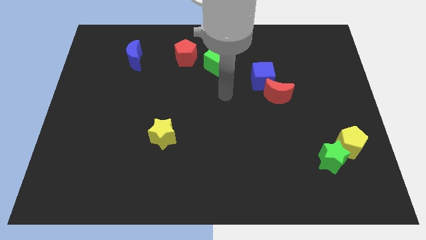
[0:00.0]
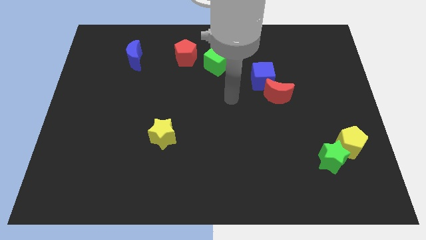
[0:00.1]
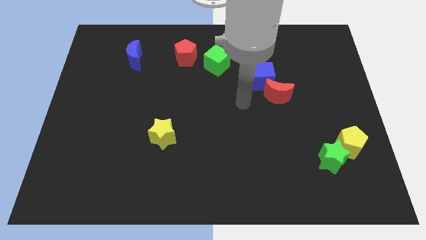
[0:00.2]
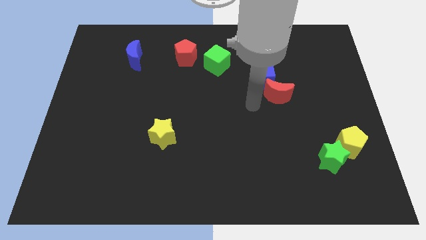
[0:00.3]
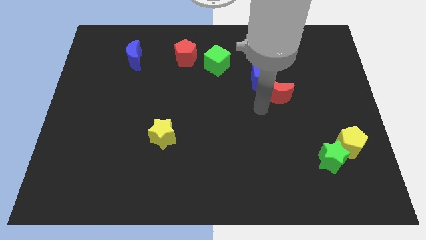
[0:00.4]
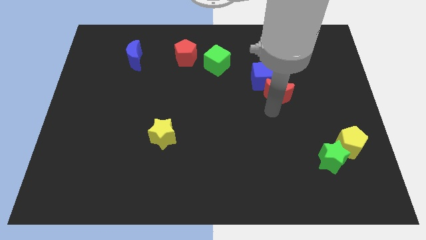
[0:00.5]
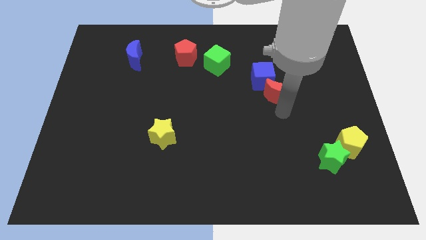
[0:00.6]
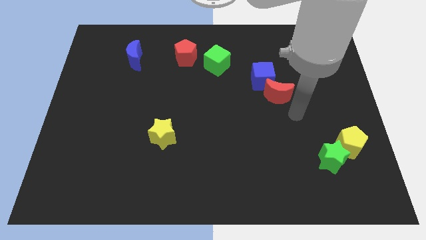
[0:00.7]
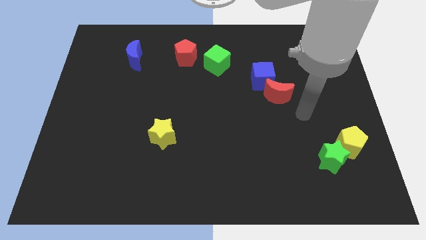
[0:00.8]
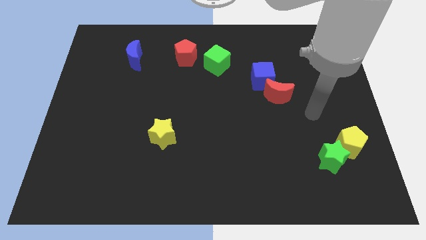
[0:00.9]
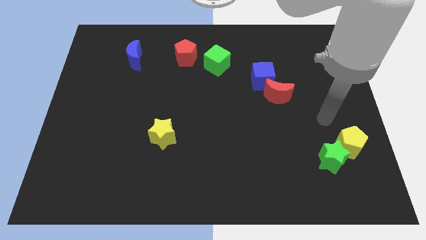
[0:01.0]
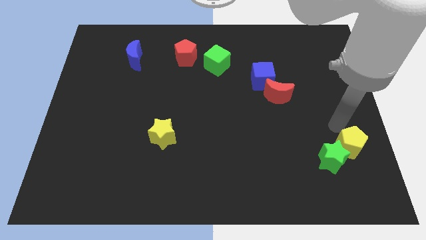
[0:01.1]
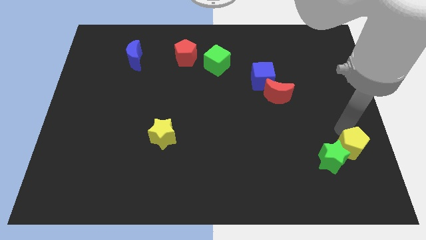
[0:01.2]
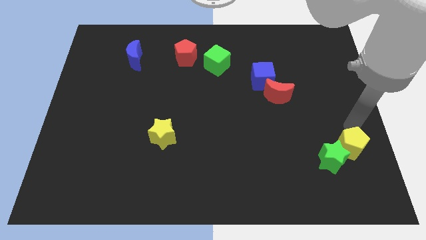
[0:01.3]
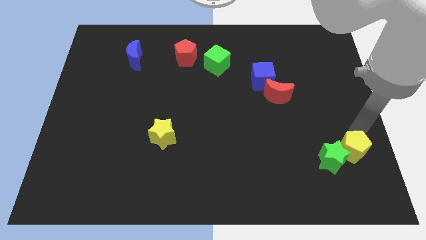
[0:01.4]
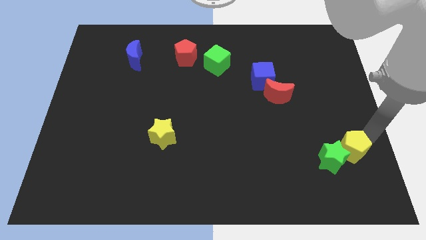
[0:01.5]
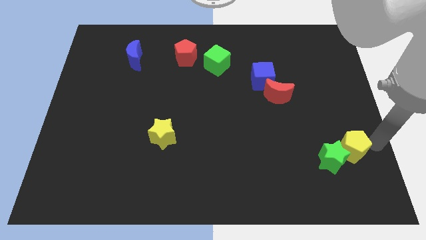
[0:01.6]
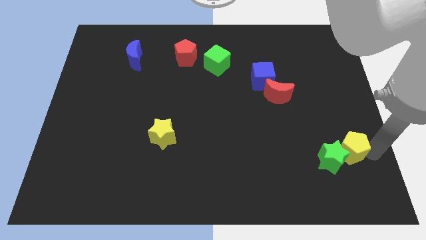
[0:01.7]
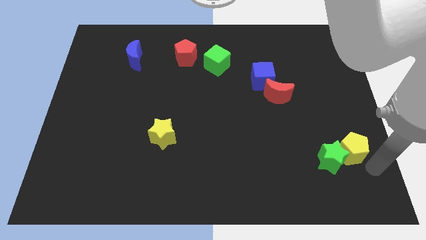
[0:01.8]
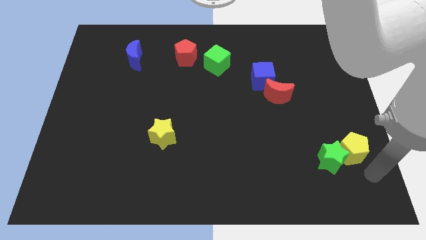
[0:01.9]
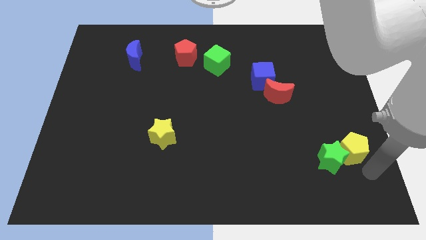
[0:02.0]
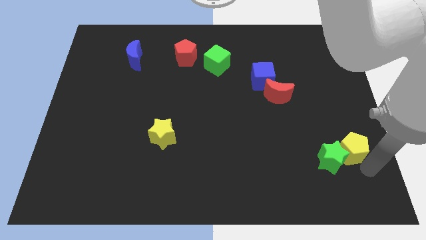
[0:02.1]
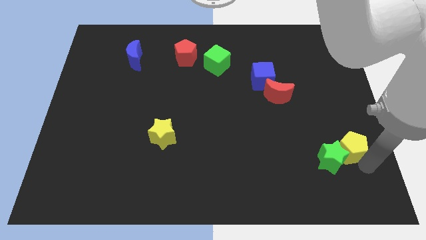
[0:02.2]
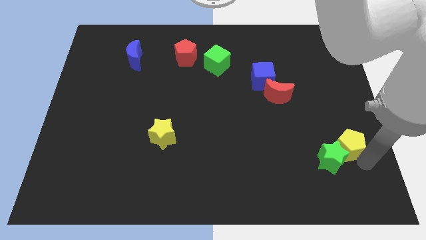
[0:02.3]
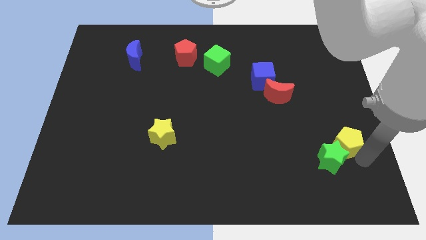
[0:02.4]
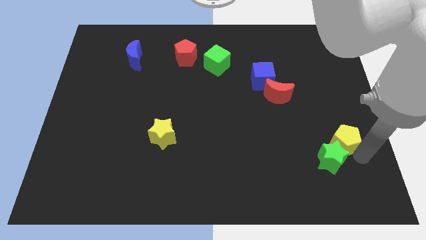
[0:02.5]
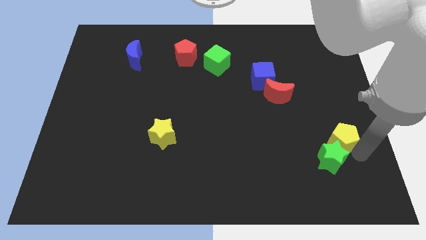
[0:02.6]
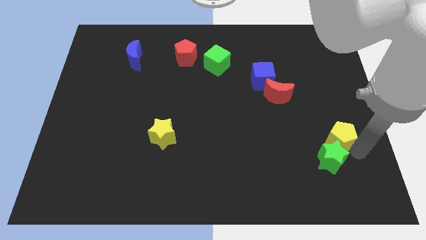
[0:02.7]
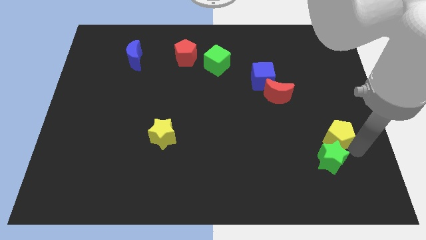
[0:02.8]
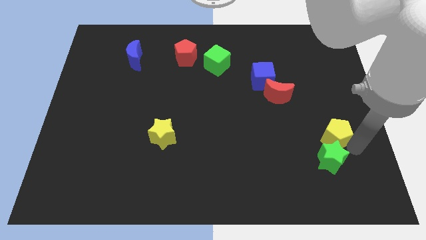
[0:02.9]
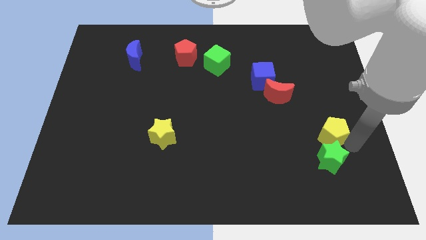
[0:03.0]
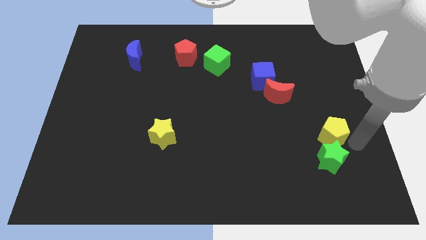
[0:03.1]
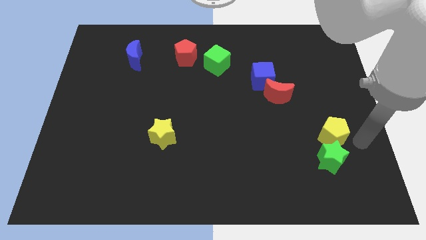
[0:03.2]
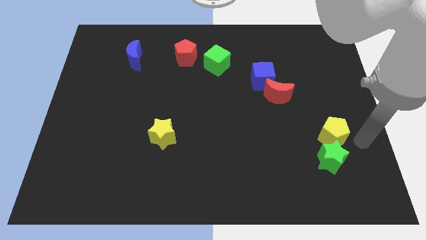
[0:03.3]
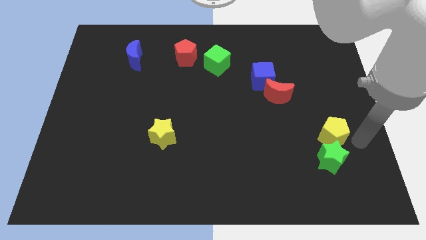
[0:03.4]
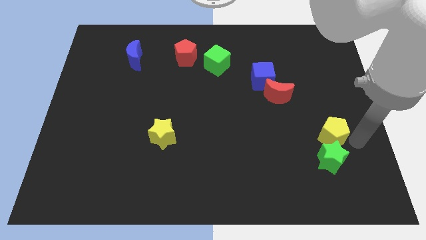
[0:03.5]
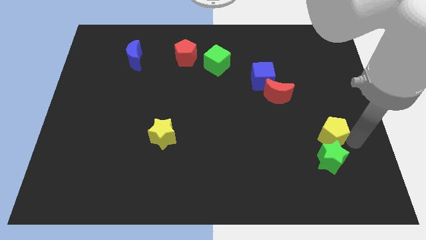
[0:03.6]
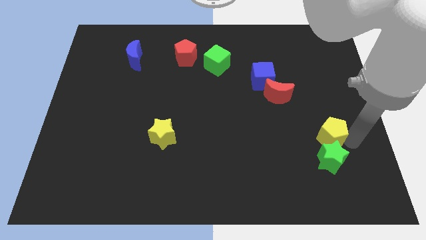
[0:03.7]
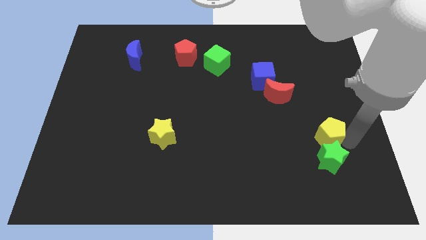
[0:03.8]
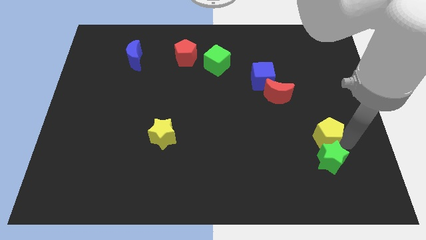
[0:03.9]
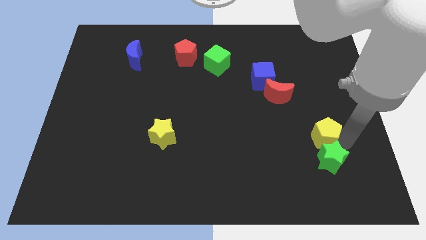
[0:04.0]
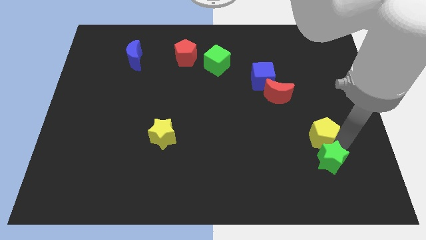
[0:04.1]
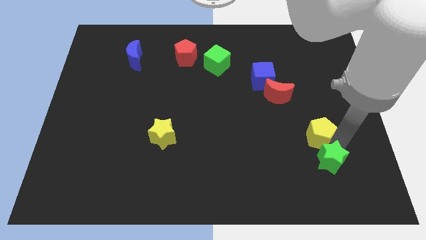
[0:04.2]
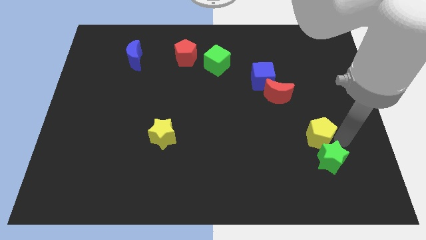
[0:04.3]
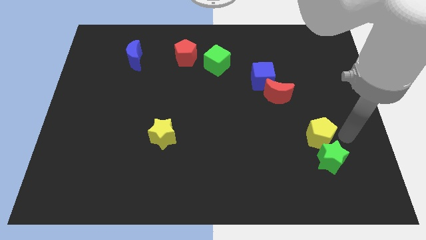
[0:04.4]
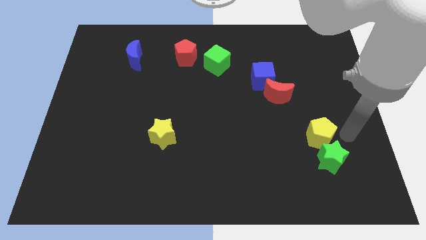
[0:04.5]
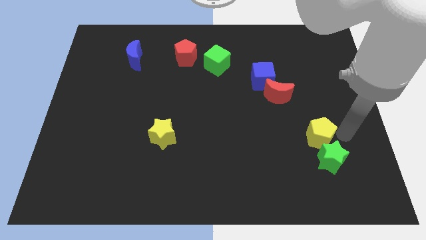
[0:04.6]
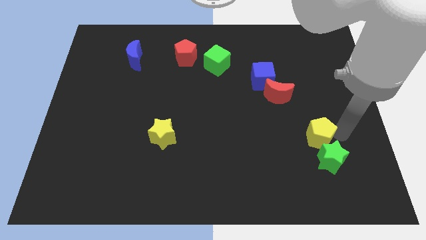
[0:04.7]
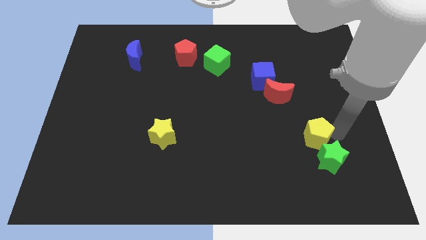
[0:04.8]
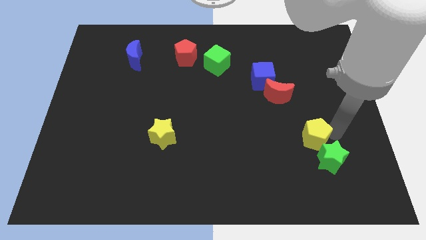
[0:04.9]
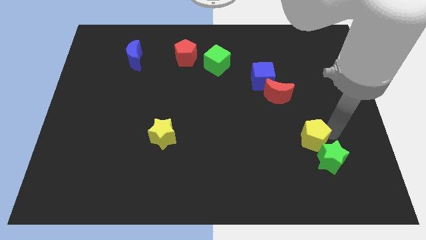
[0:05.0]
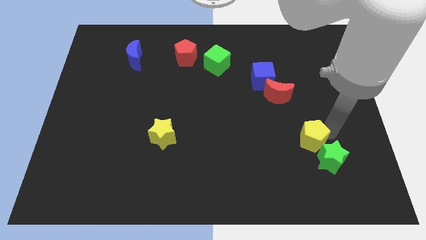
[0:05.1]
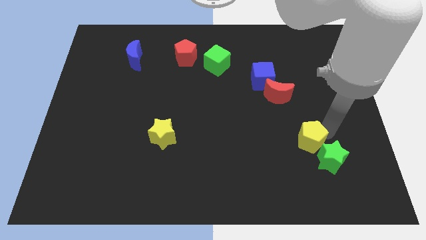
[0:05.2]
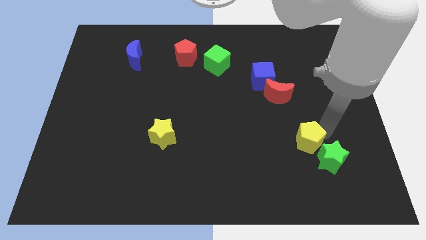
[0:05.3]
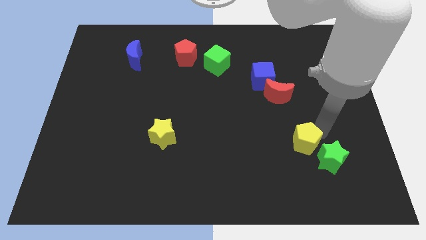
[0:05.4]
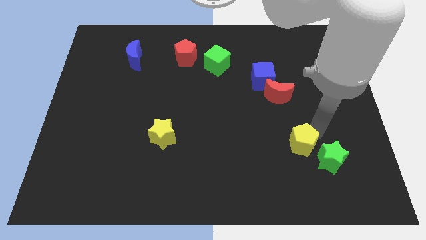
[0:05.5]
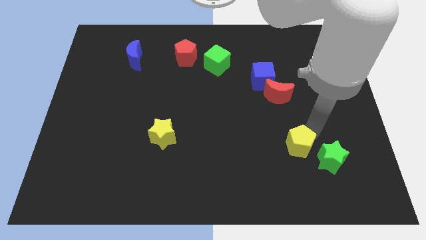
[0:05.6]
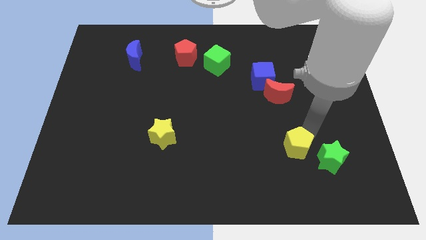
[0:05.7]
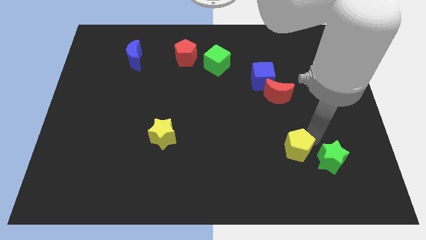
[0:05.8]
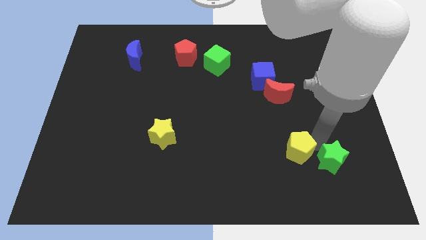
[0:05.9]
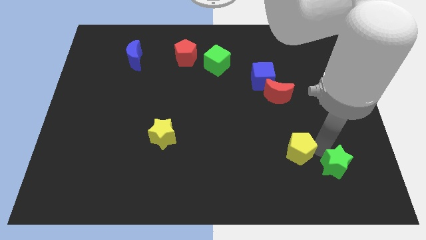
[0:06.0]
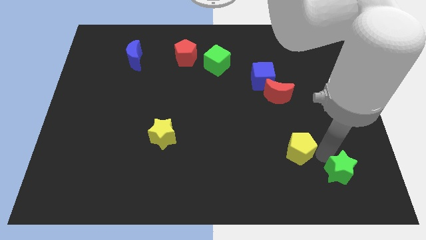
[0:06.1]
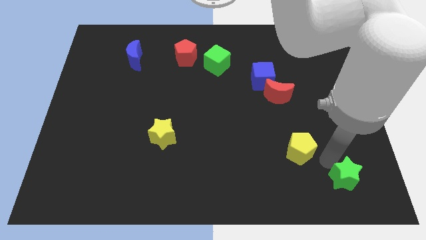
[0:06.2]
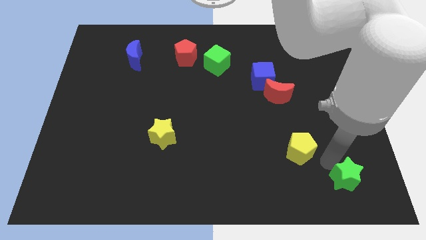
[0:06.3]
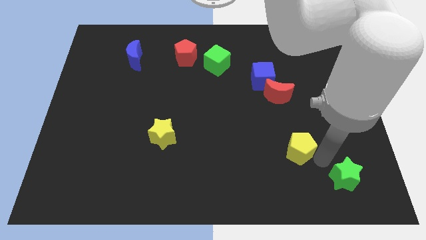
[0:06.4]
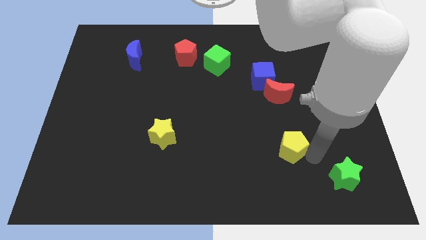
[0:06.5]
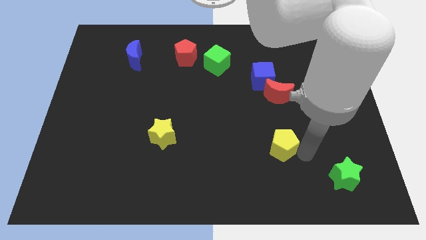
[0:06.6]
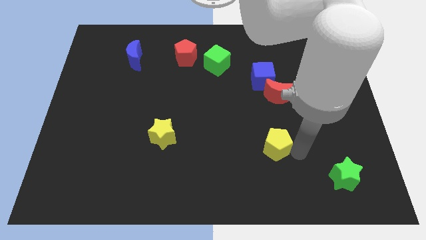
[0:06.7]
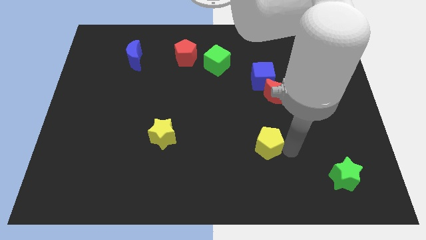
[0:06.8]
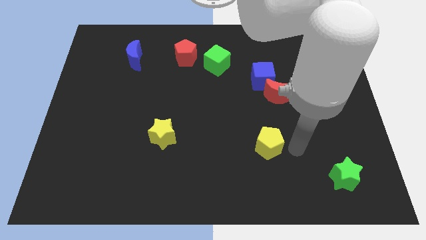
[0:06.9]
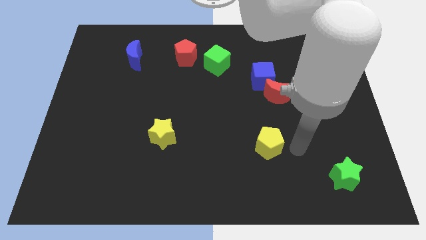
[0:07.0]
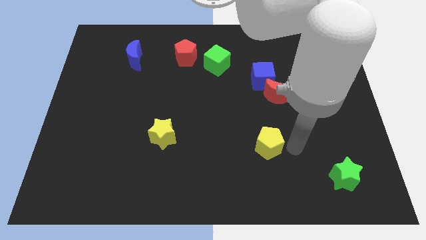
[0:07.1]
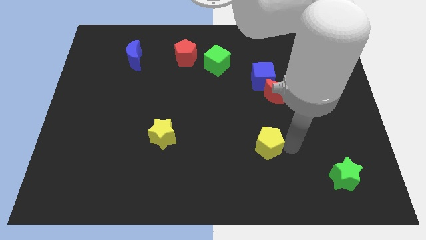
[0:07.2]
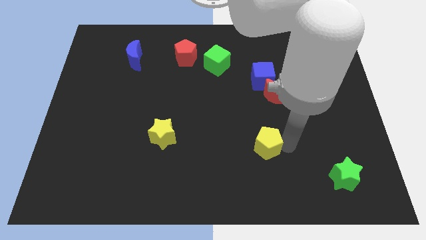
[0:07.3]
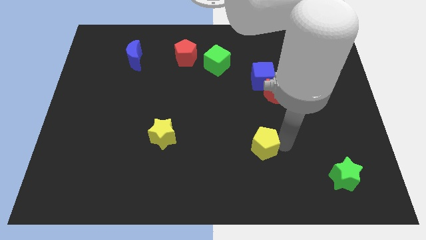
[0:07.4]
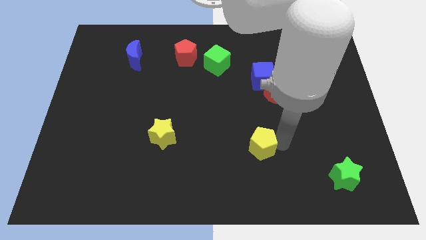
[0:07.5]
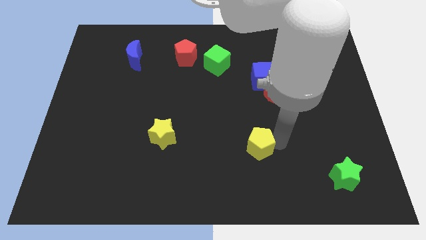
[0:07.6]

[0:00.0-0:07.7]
push the yellow pentagon to the left

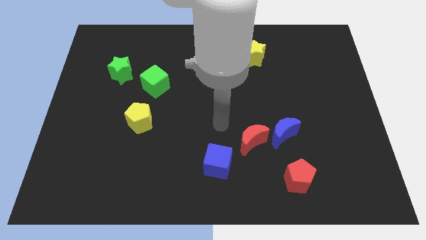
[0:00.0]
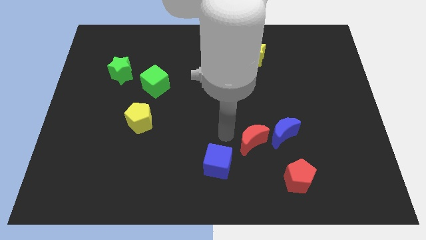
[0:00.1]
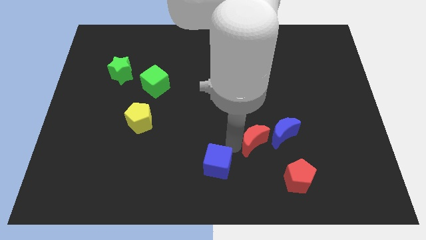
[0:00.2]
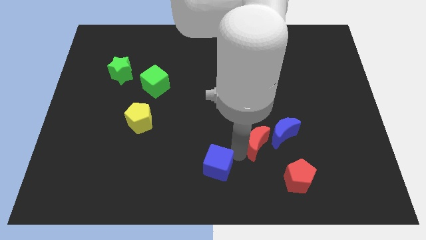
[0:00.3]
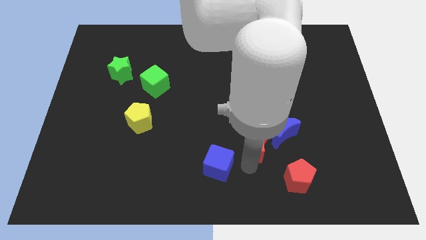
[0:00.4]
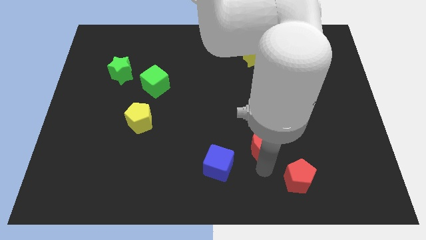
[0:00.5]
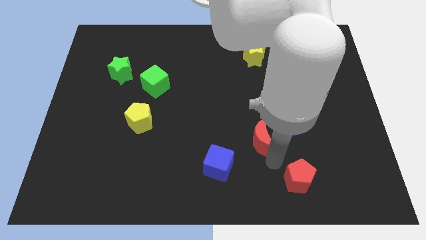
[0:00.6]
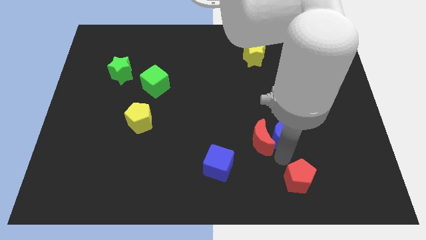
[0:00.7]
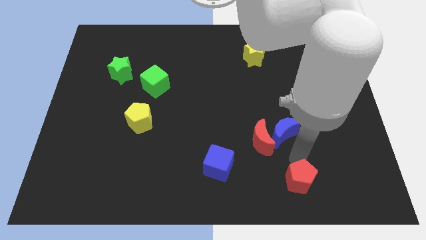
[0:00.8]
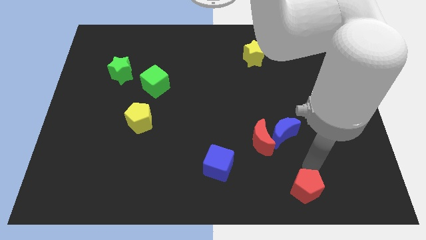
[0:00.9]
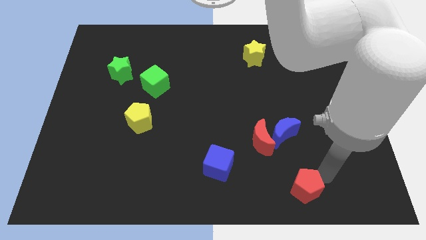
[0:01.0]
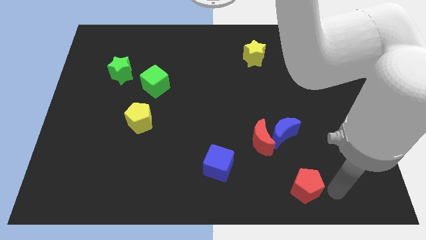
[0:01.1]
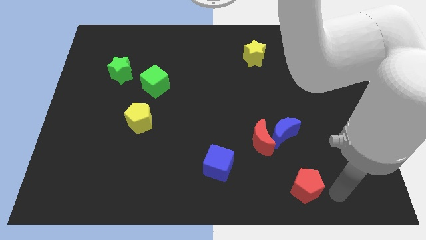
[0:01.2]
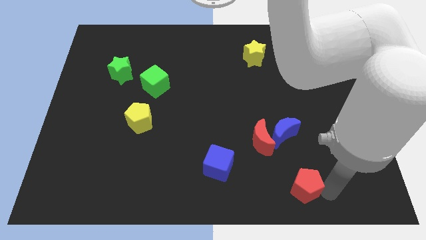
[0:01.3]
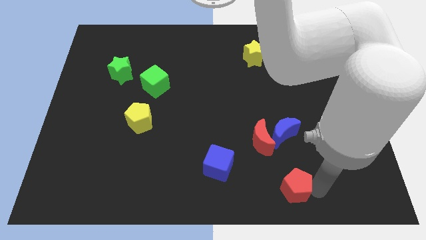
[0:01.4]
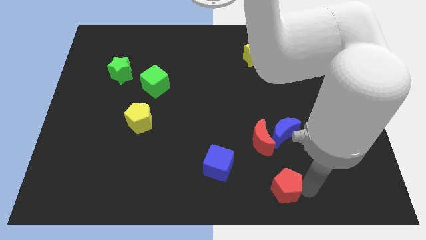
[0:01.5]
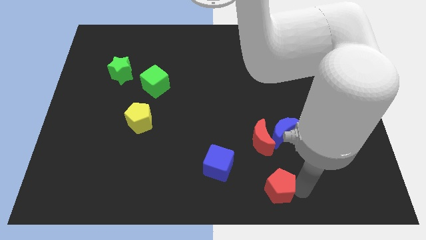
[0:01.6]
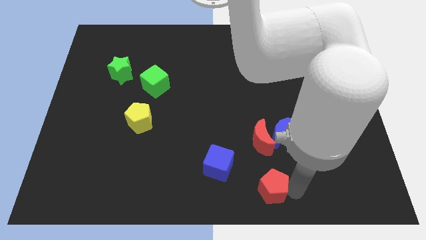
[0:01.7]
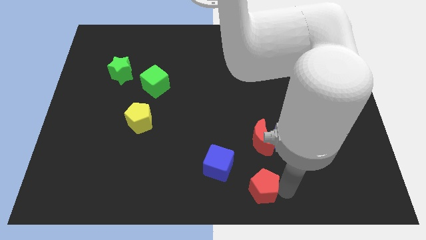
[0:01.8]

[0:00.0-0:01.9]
slightly slide the red pentagon to the left
